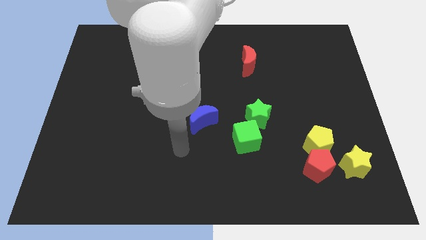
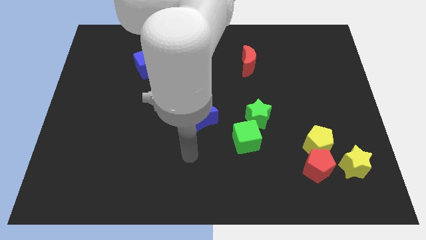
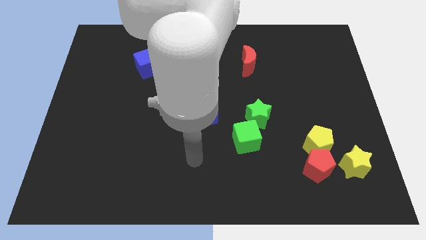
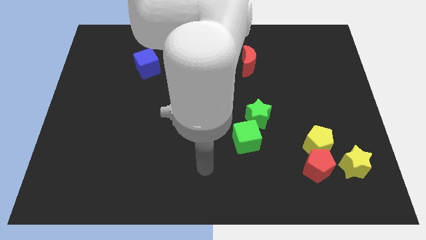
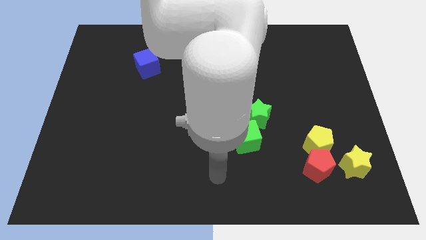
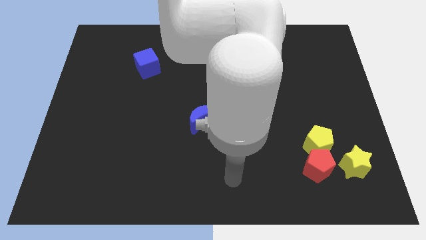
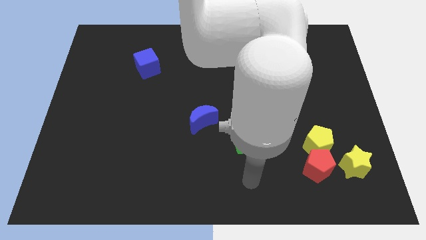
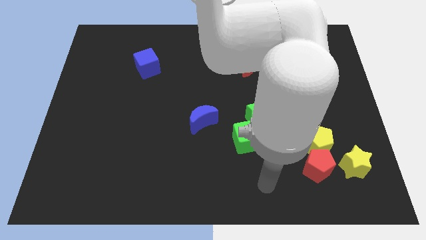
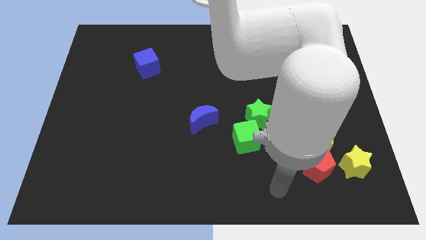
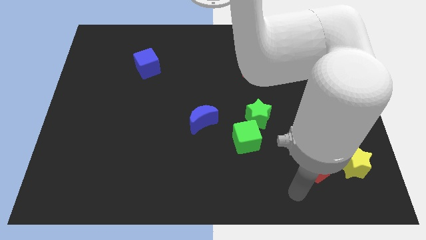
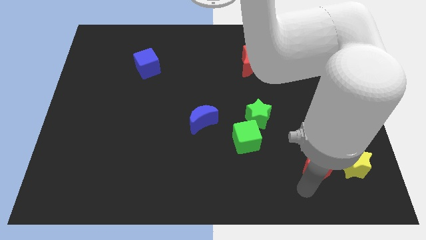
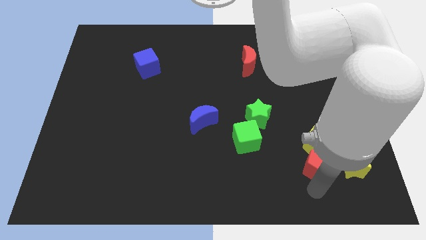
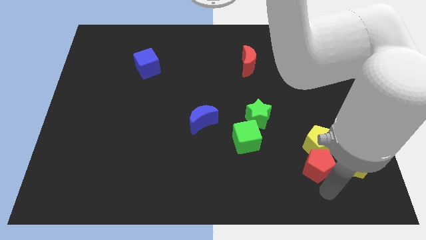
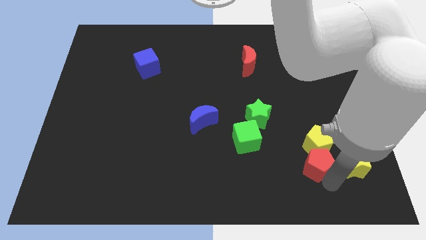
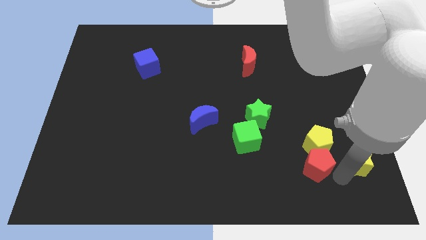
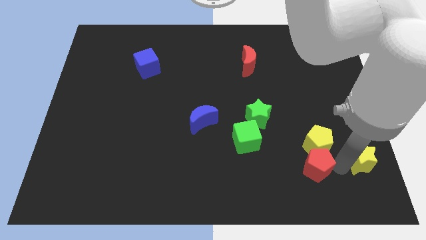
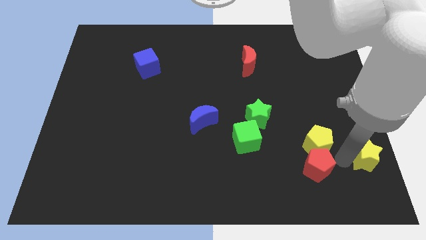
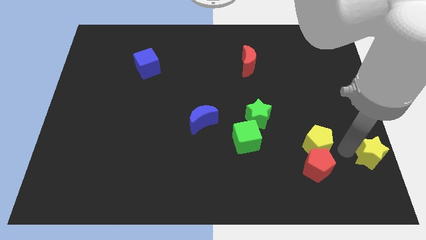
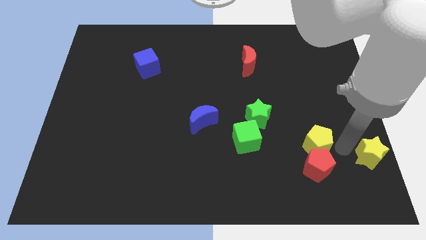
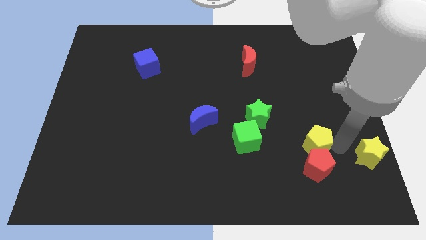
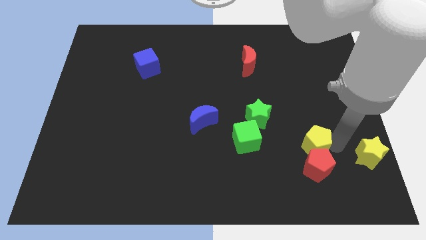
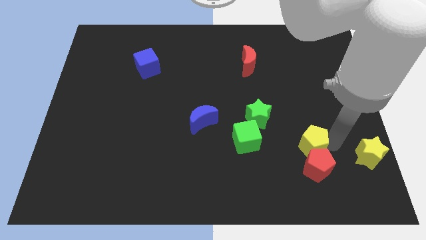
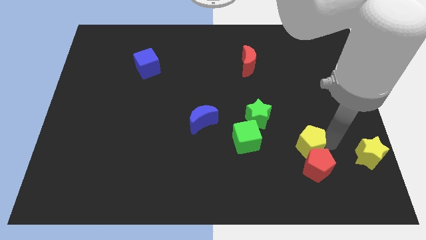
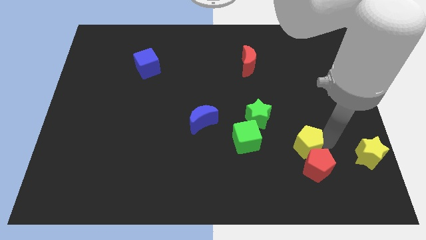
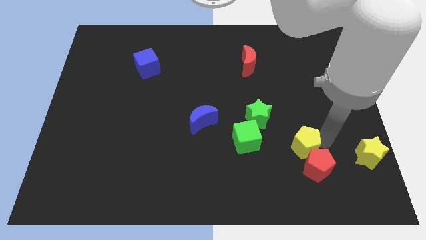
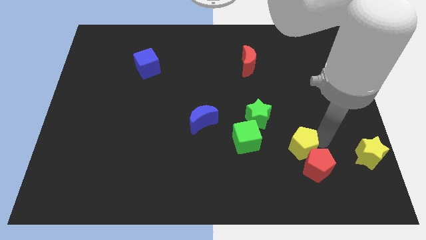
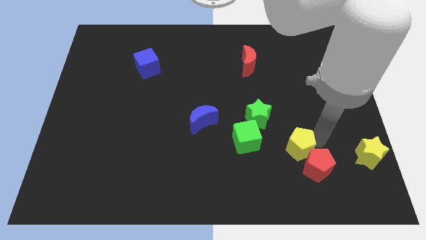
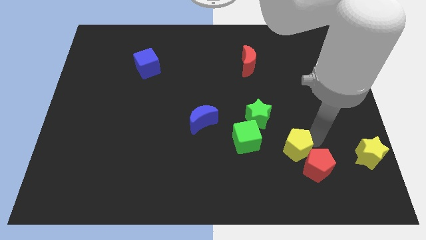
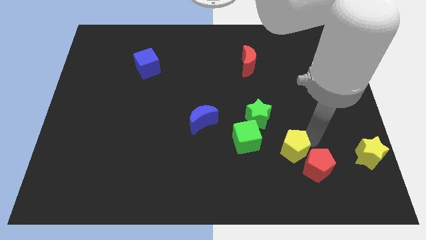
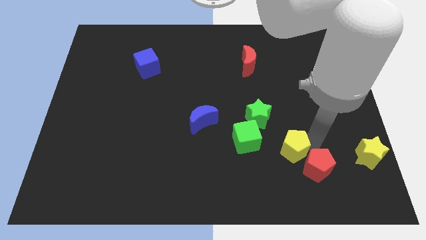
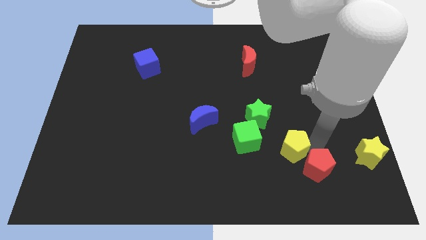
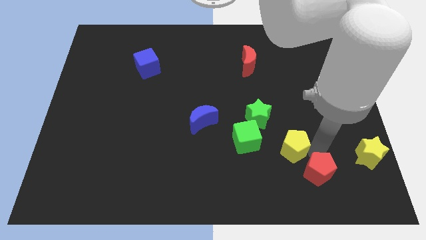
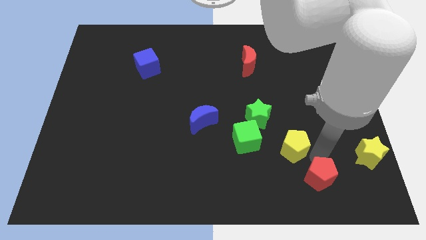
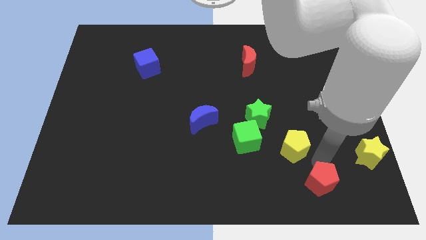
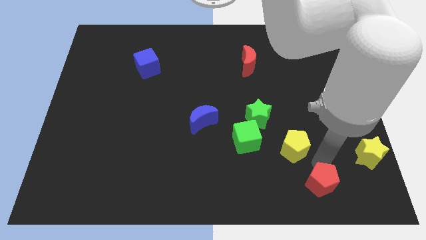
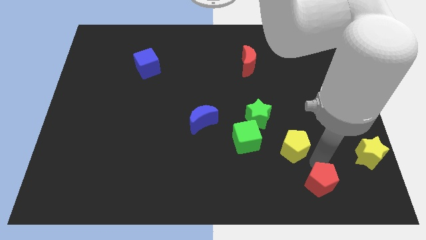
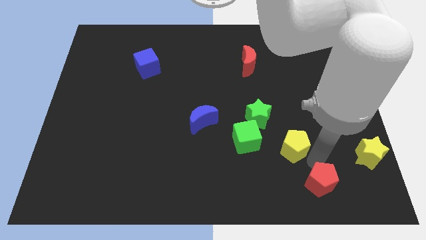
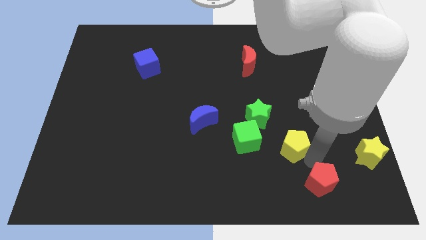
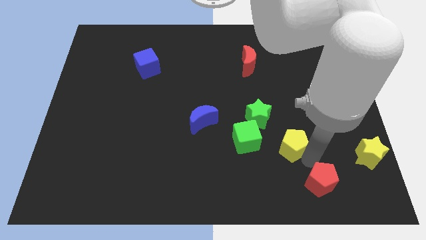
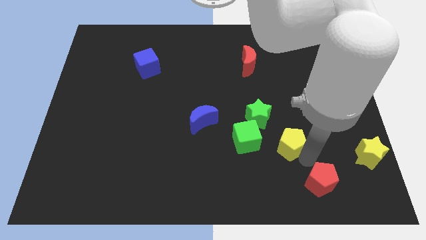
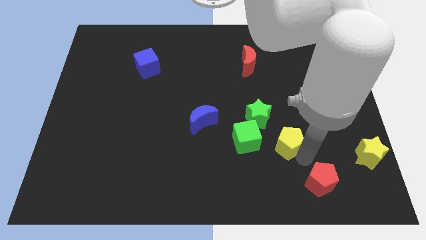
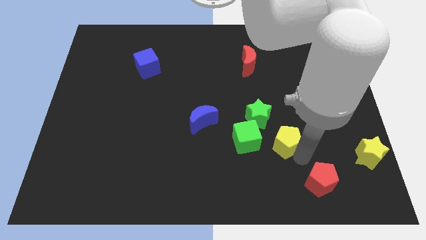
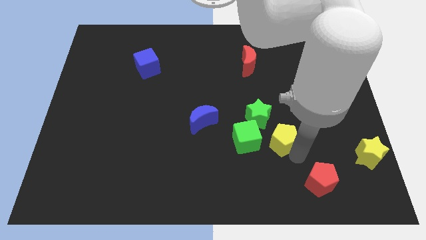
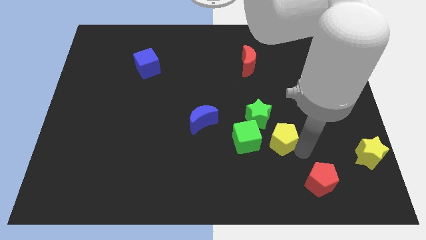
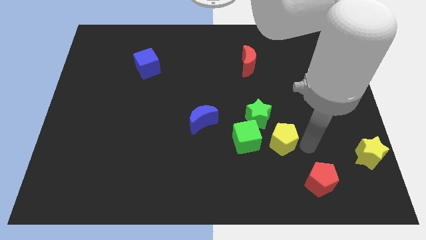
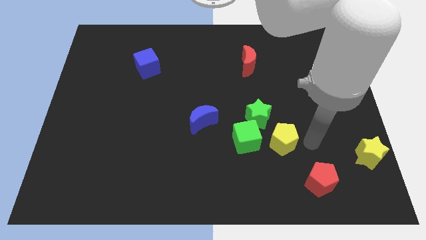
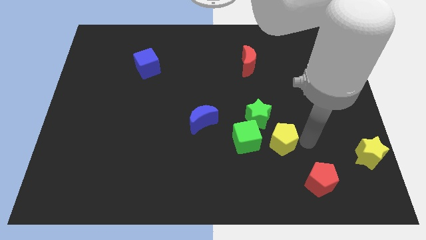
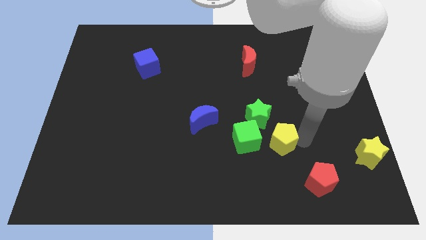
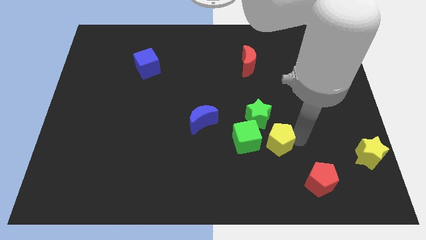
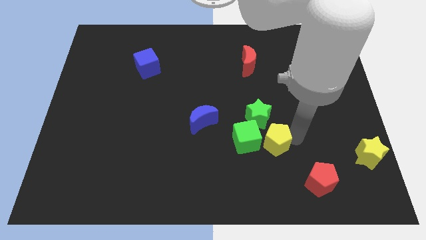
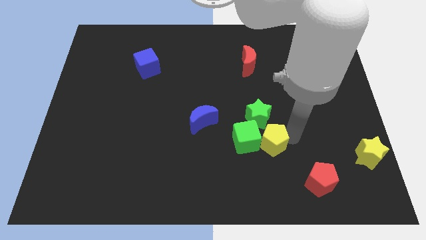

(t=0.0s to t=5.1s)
push the yellow pentagon next to the green cube

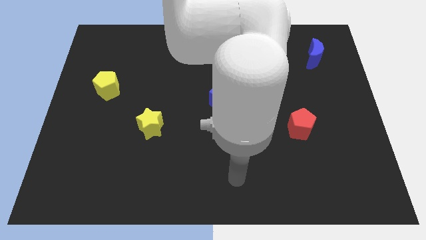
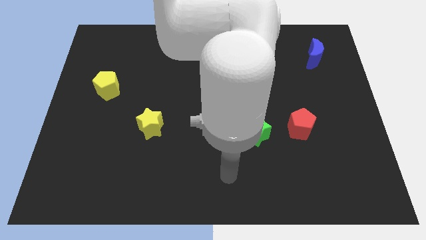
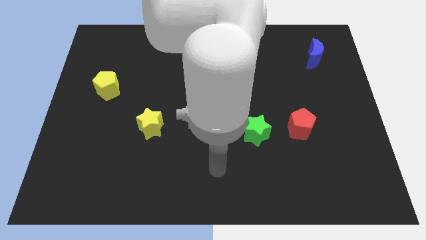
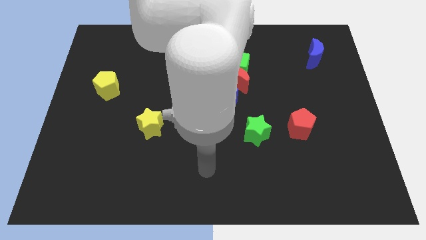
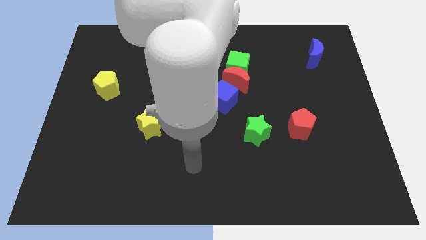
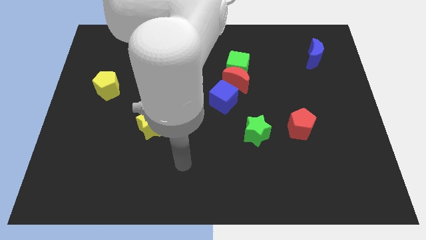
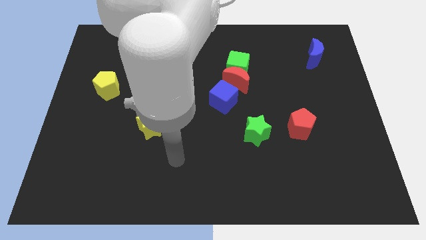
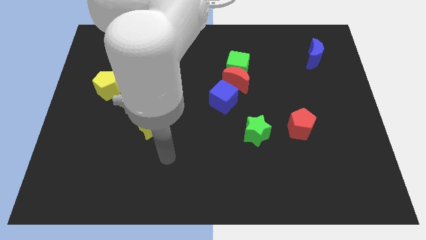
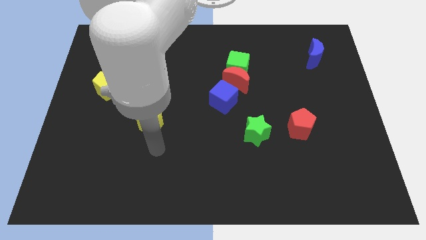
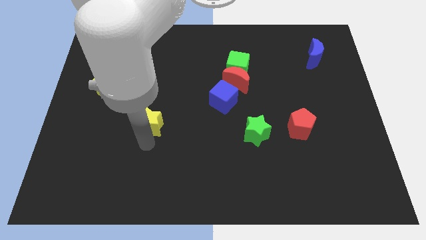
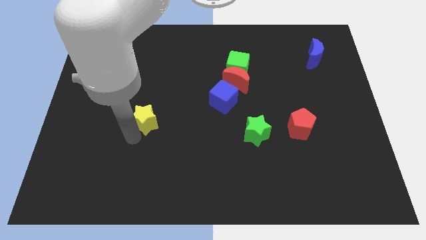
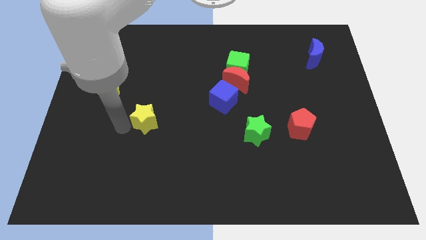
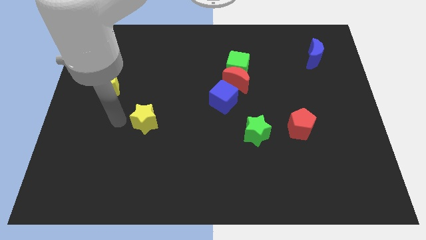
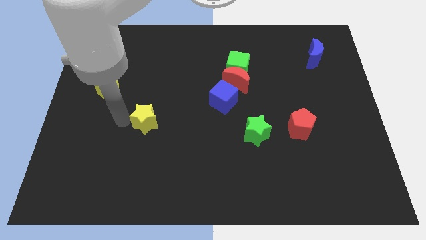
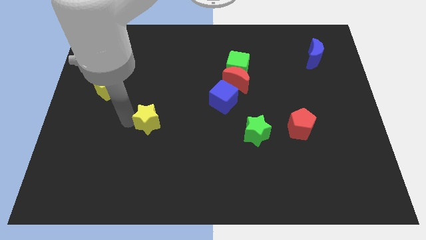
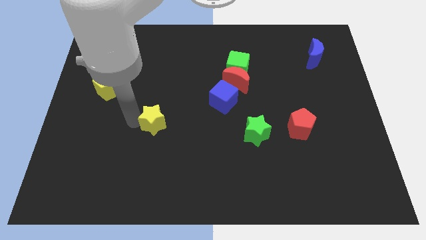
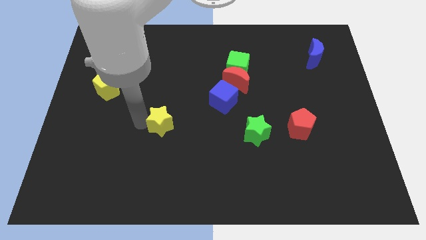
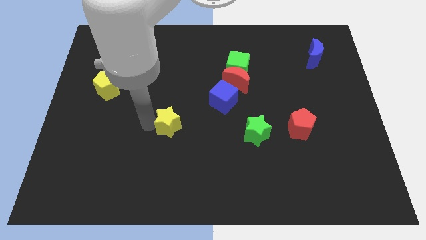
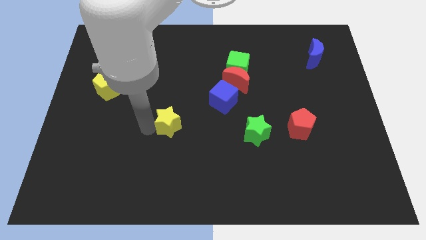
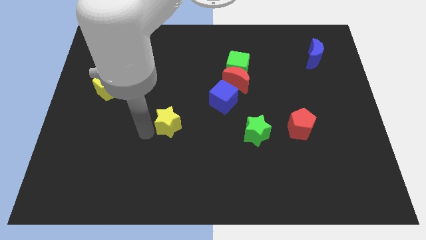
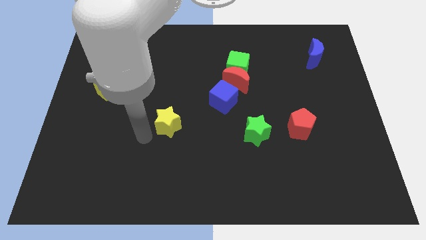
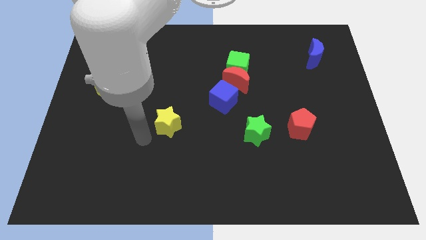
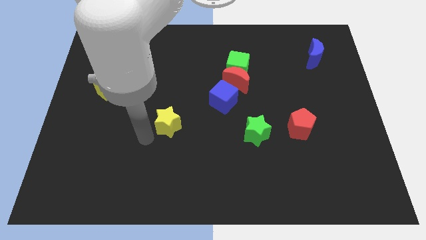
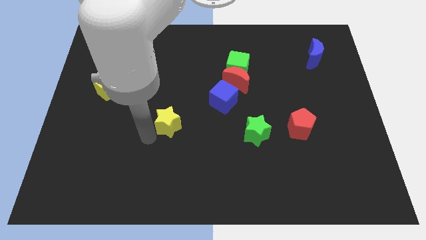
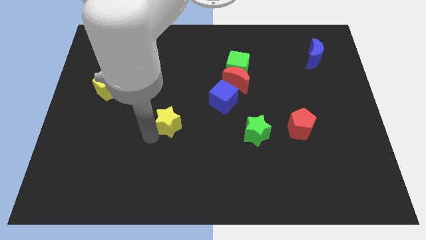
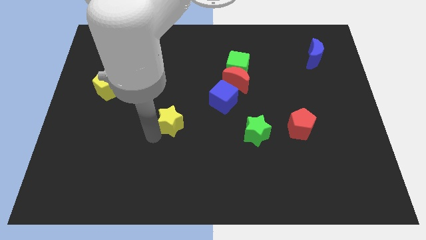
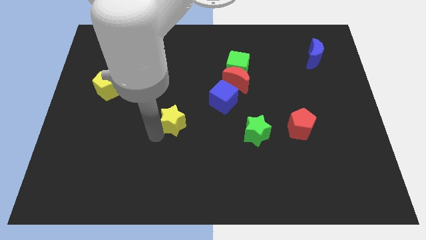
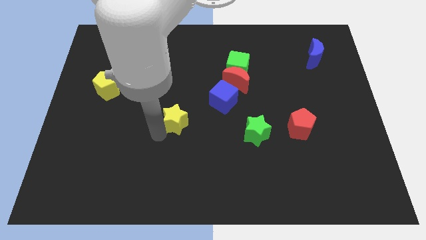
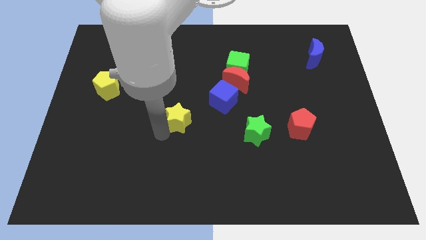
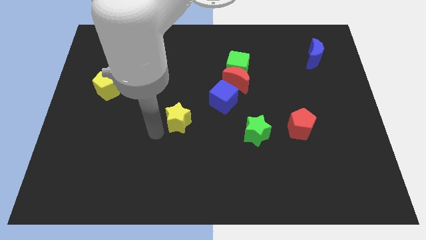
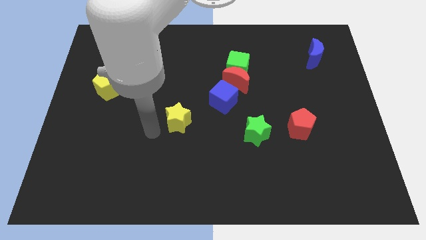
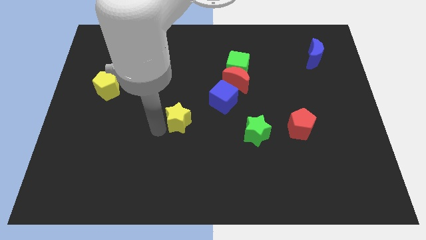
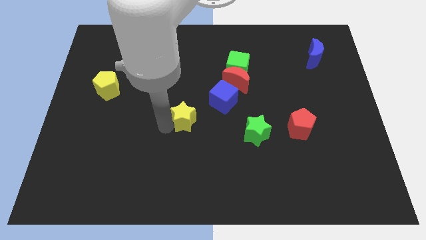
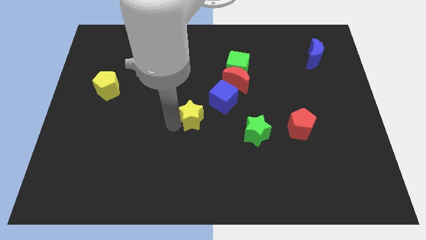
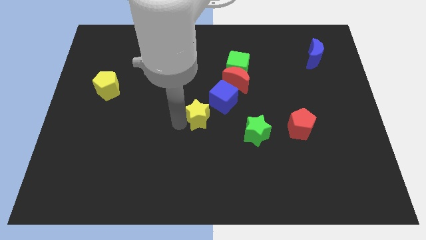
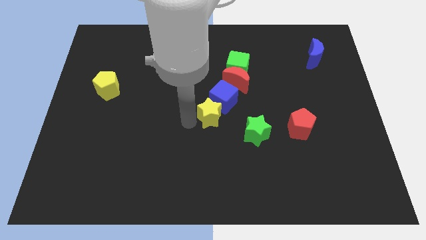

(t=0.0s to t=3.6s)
slide the yellow star to the blue cube
